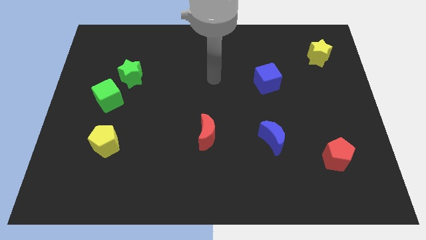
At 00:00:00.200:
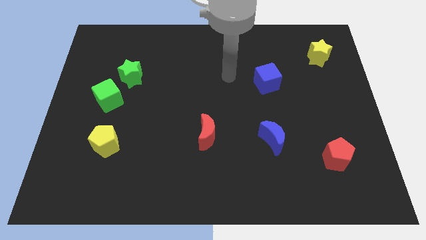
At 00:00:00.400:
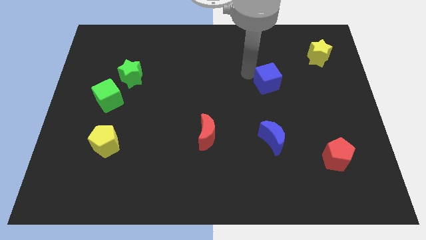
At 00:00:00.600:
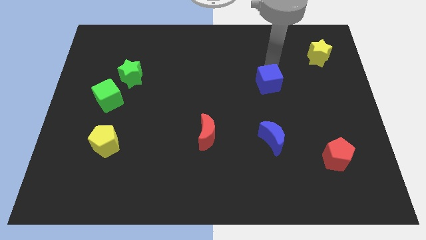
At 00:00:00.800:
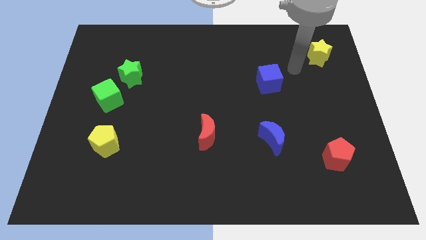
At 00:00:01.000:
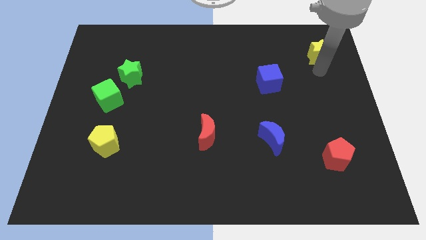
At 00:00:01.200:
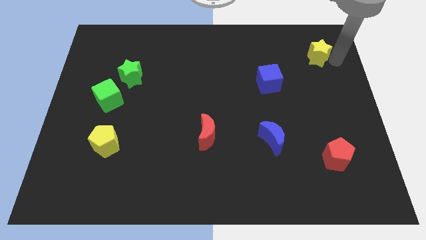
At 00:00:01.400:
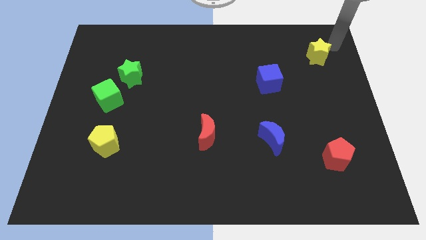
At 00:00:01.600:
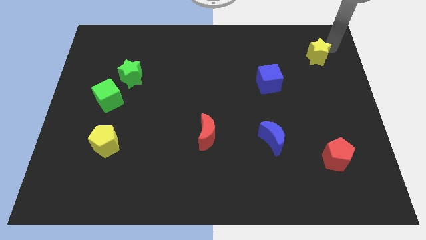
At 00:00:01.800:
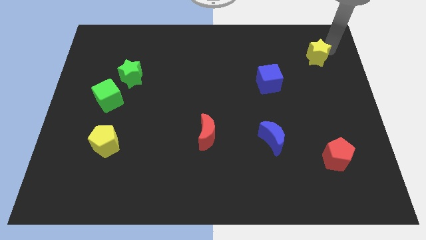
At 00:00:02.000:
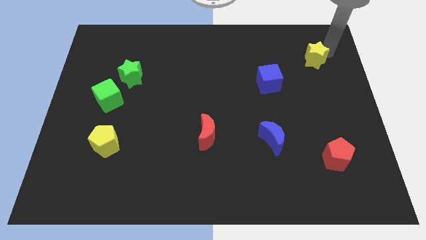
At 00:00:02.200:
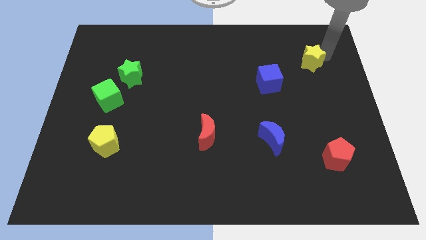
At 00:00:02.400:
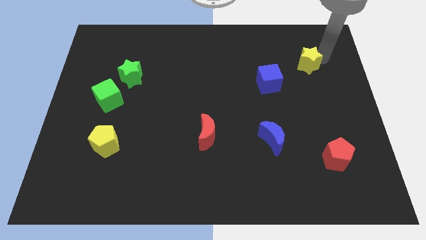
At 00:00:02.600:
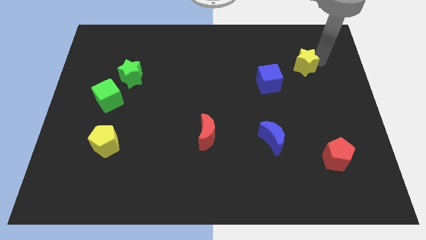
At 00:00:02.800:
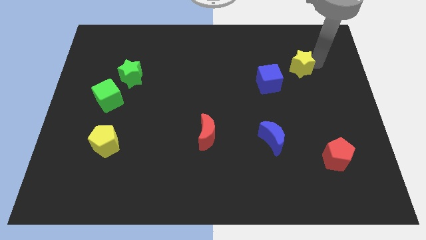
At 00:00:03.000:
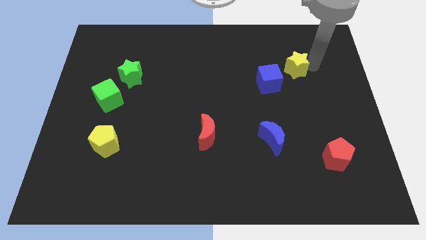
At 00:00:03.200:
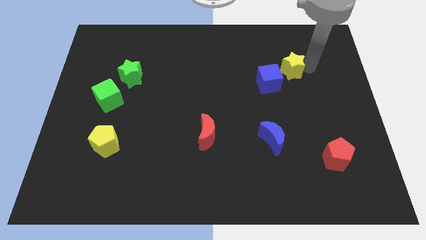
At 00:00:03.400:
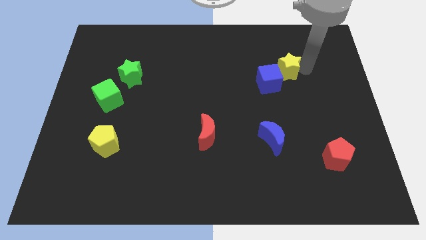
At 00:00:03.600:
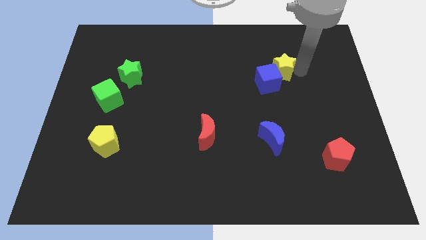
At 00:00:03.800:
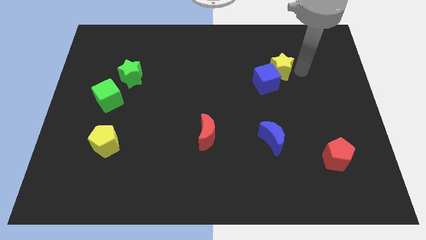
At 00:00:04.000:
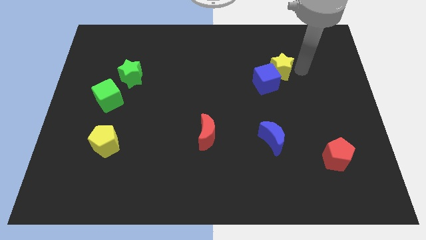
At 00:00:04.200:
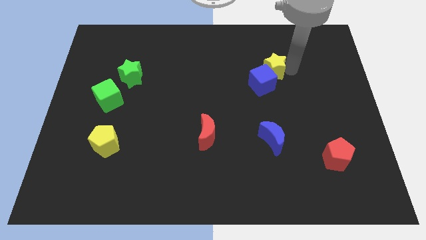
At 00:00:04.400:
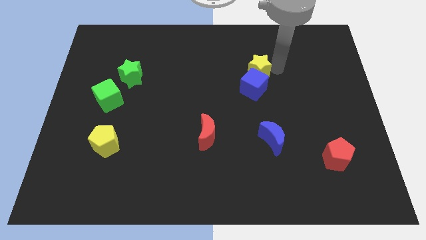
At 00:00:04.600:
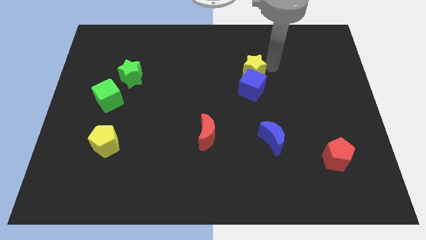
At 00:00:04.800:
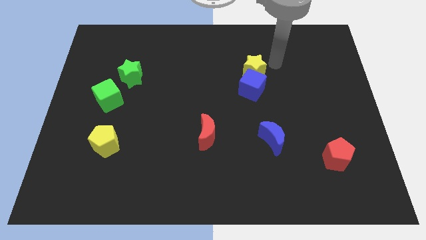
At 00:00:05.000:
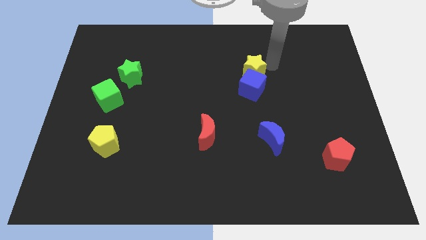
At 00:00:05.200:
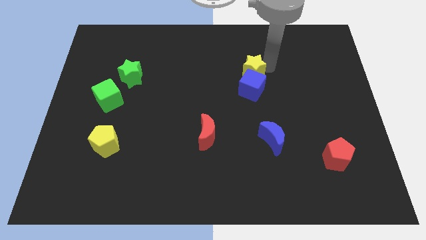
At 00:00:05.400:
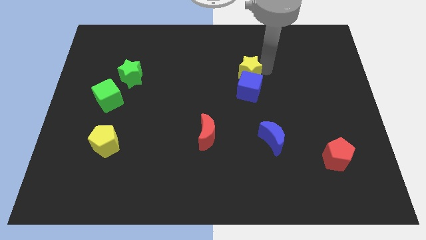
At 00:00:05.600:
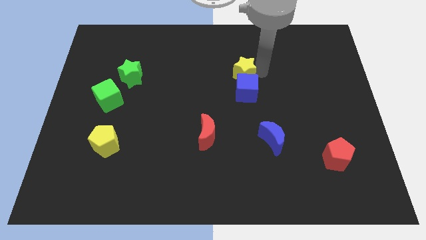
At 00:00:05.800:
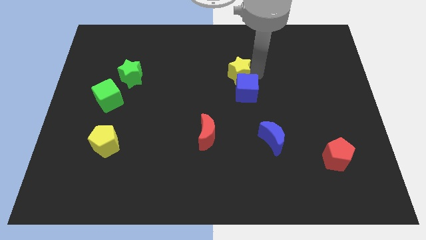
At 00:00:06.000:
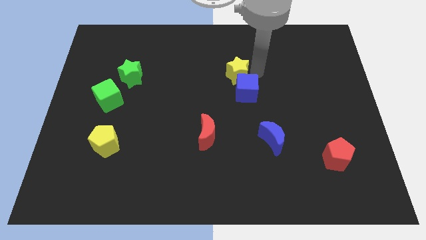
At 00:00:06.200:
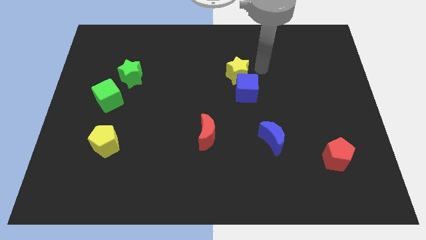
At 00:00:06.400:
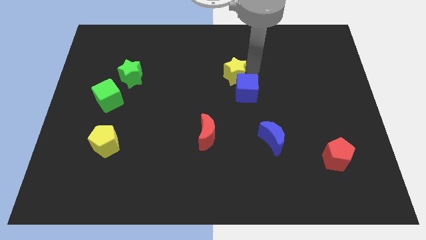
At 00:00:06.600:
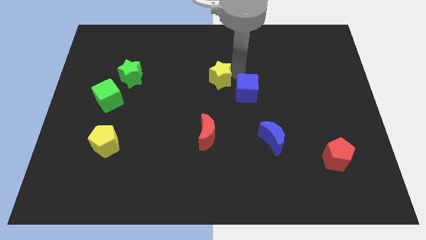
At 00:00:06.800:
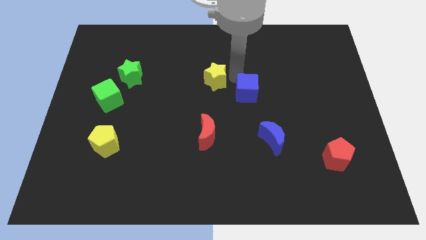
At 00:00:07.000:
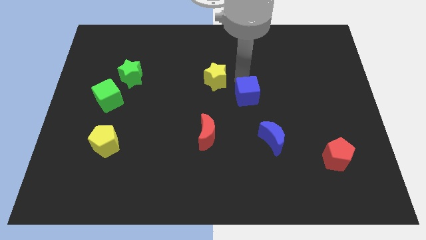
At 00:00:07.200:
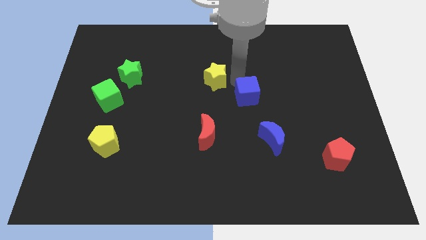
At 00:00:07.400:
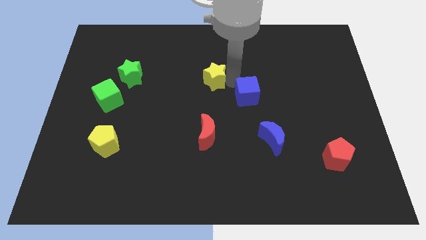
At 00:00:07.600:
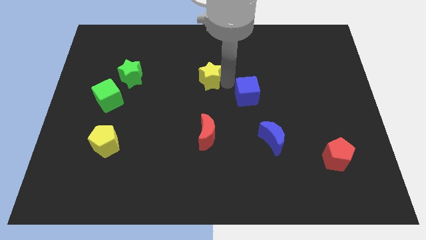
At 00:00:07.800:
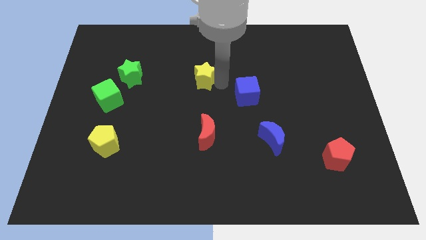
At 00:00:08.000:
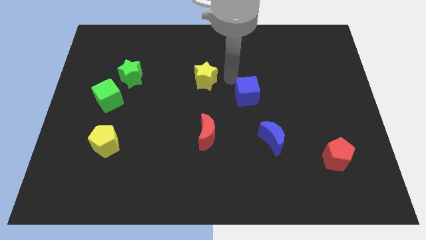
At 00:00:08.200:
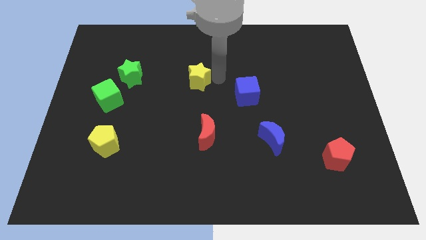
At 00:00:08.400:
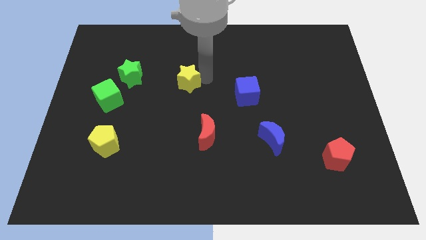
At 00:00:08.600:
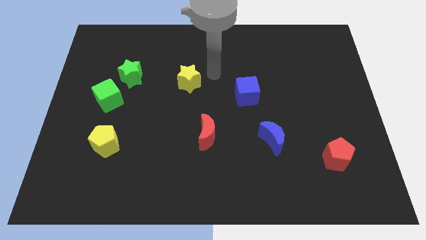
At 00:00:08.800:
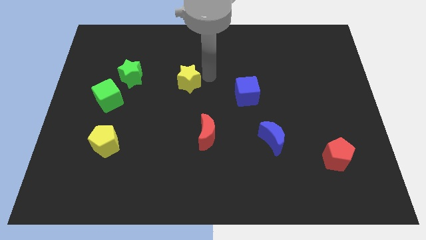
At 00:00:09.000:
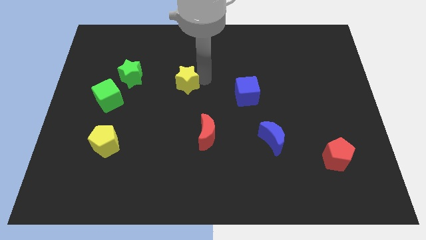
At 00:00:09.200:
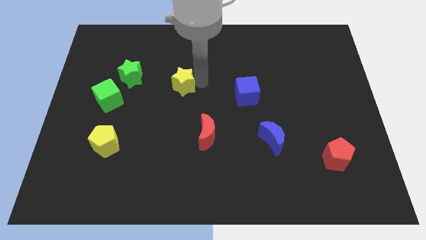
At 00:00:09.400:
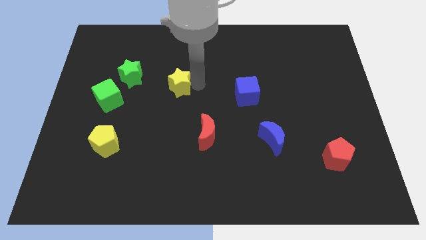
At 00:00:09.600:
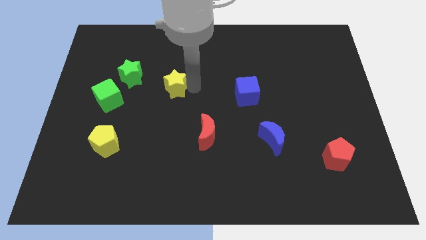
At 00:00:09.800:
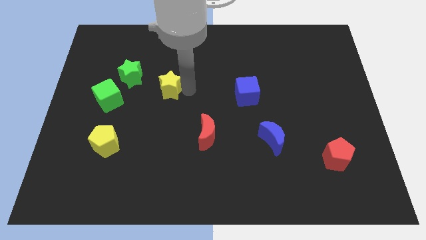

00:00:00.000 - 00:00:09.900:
slide the yellow star to the bottom right side of the green star

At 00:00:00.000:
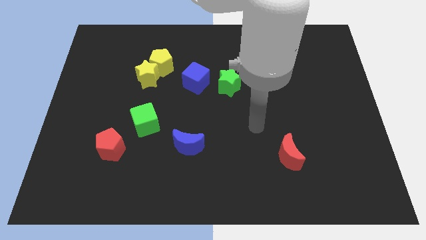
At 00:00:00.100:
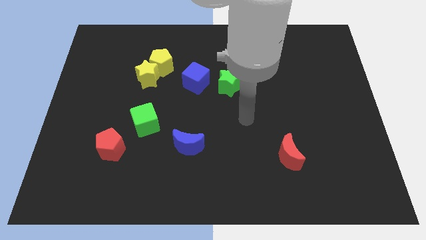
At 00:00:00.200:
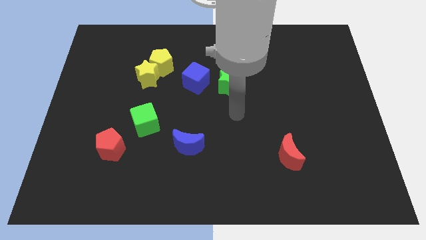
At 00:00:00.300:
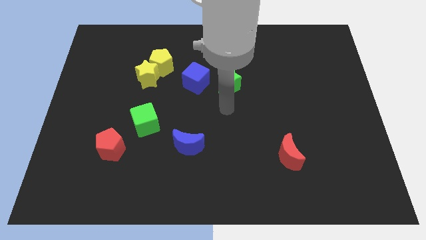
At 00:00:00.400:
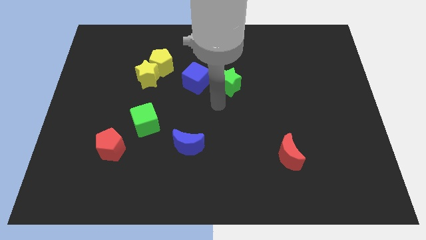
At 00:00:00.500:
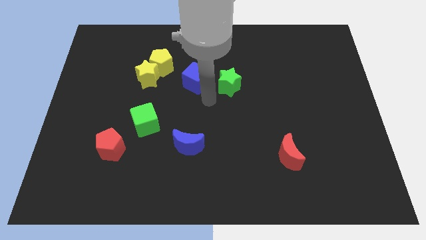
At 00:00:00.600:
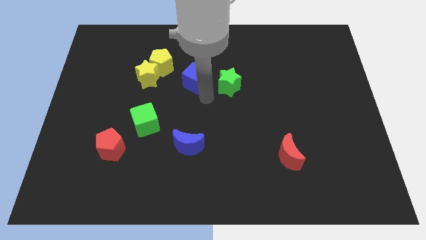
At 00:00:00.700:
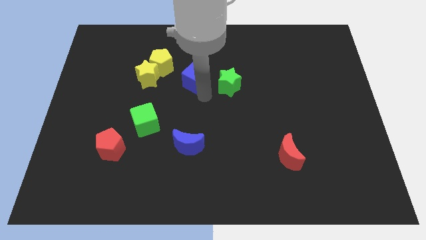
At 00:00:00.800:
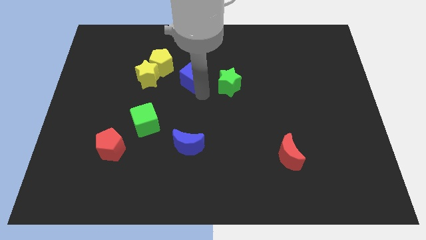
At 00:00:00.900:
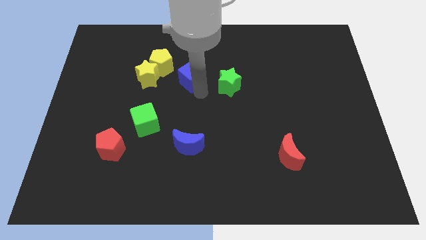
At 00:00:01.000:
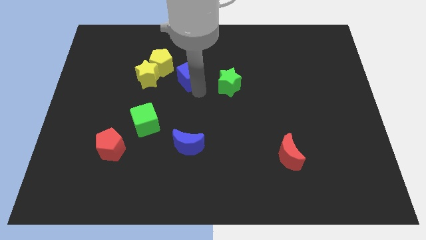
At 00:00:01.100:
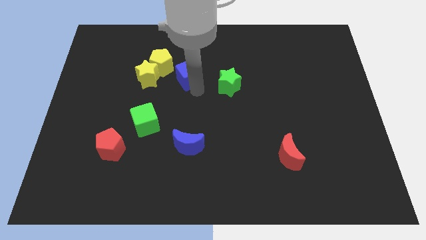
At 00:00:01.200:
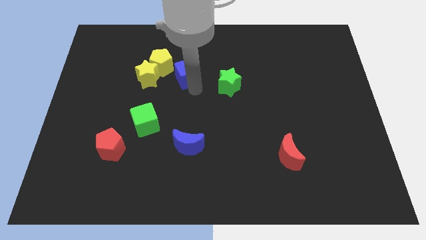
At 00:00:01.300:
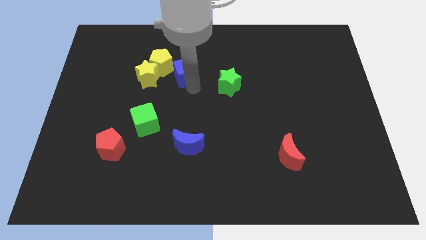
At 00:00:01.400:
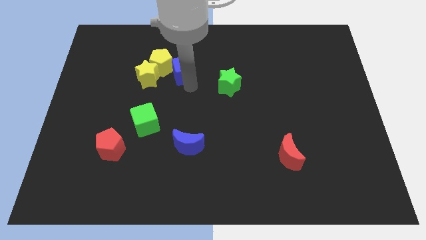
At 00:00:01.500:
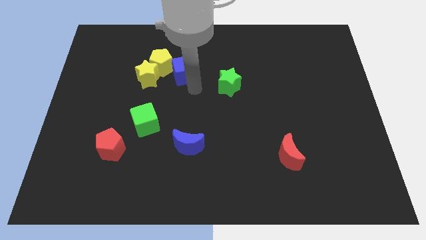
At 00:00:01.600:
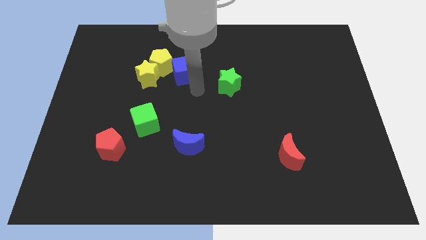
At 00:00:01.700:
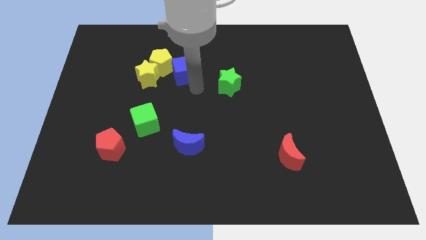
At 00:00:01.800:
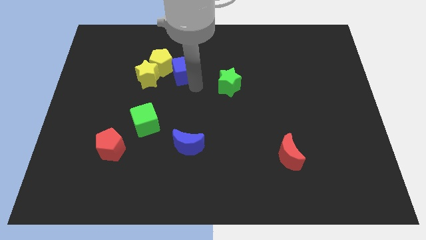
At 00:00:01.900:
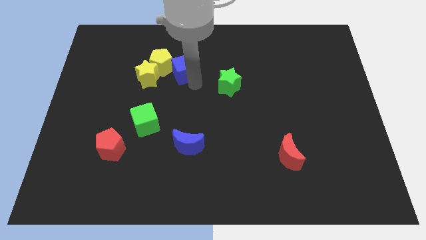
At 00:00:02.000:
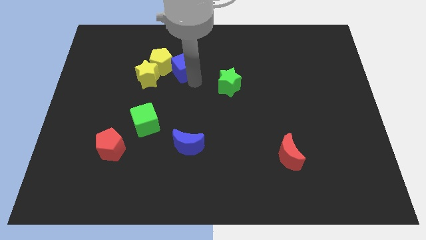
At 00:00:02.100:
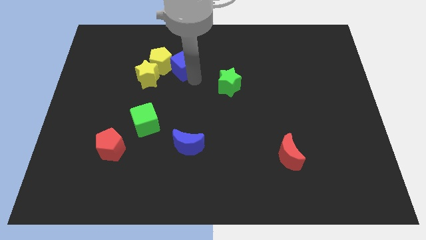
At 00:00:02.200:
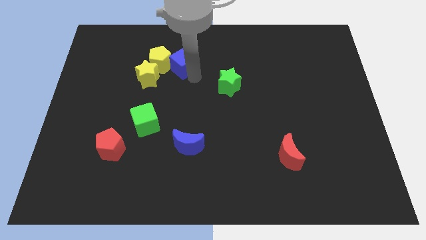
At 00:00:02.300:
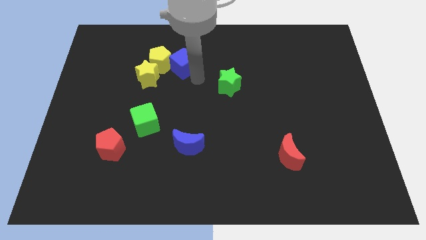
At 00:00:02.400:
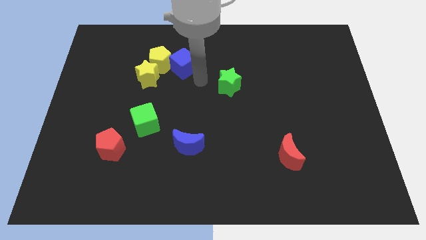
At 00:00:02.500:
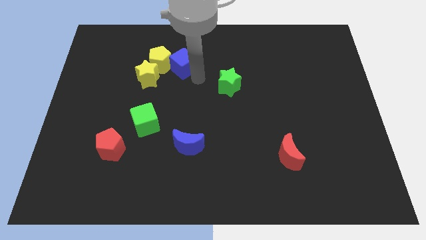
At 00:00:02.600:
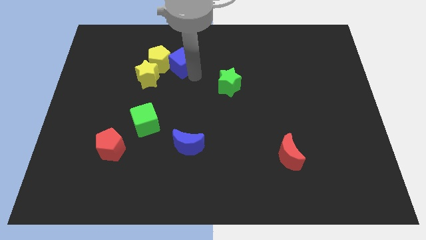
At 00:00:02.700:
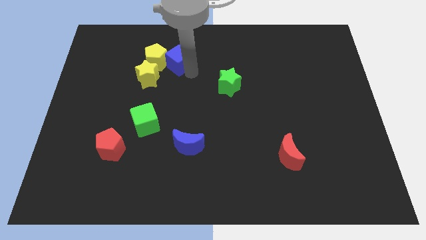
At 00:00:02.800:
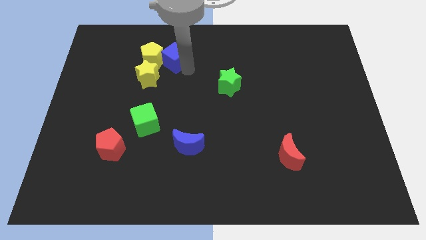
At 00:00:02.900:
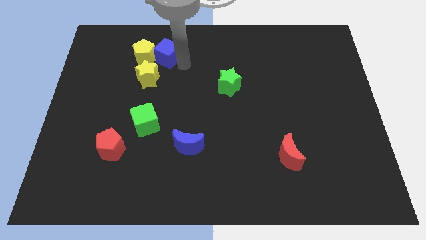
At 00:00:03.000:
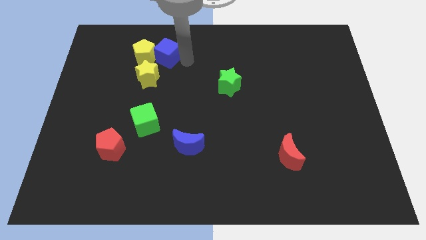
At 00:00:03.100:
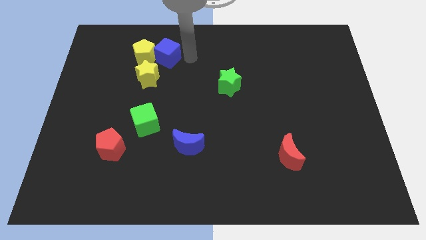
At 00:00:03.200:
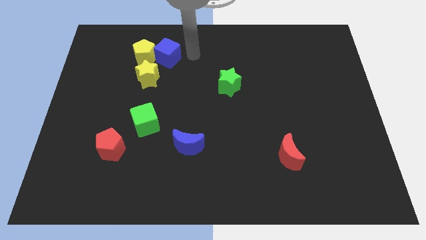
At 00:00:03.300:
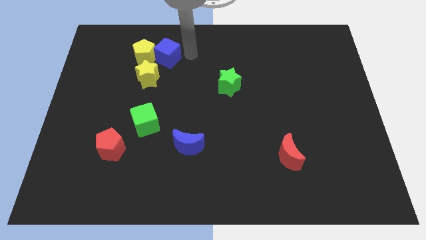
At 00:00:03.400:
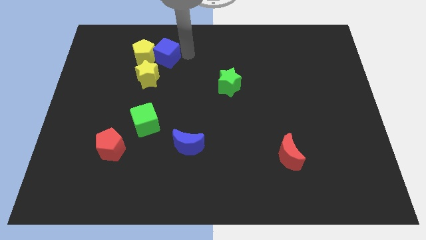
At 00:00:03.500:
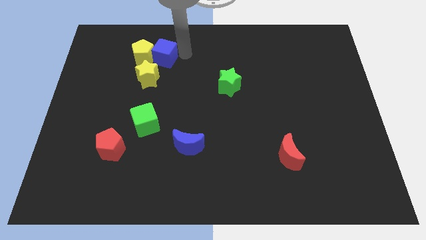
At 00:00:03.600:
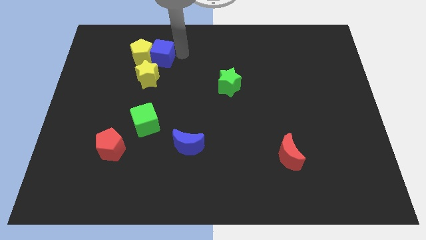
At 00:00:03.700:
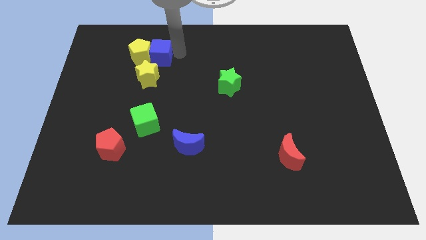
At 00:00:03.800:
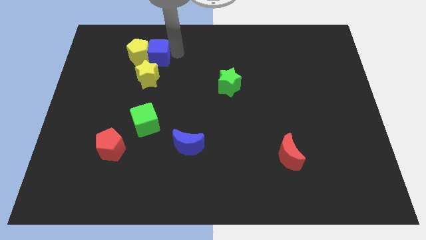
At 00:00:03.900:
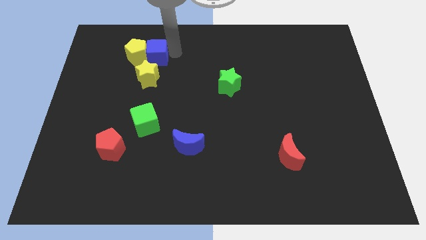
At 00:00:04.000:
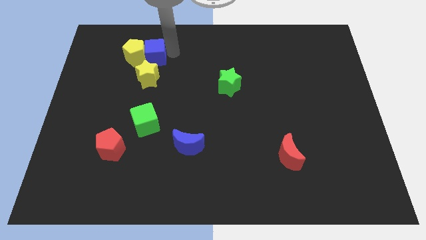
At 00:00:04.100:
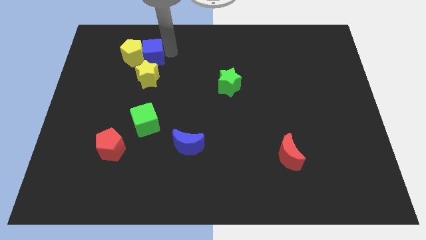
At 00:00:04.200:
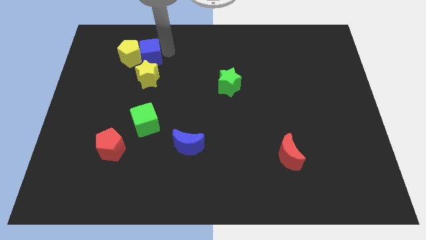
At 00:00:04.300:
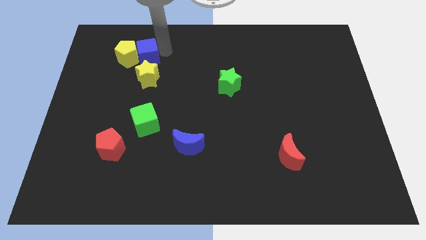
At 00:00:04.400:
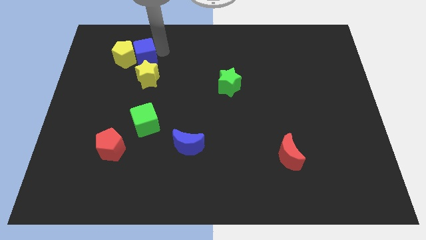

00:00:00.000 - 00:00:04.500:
move the blue cube diagonally up and to the left of the yellow star
